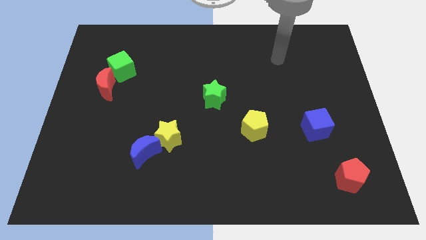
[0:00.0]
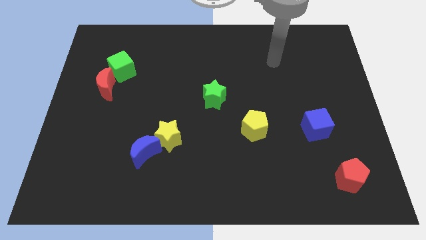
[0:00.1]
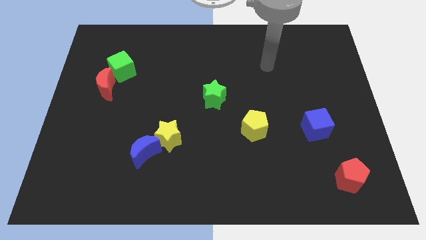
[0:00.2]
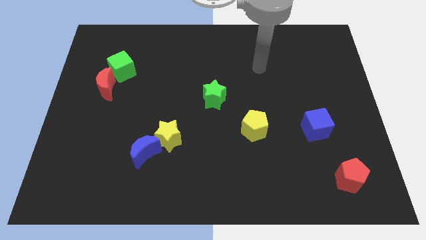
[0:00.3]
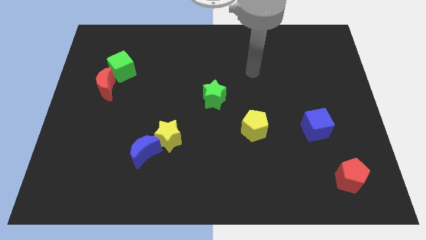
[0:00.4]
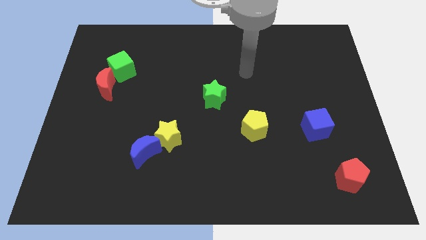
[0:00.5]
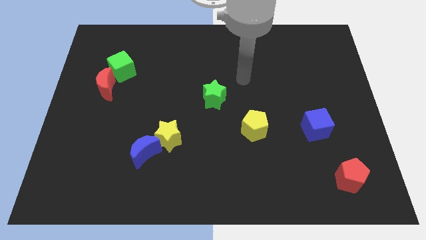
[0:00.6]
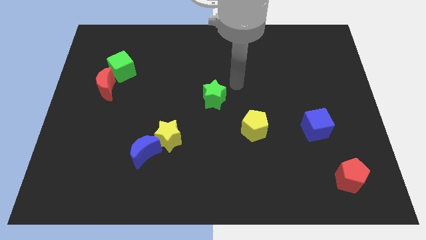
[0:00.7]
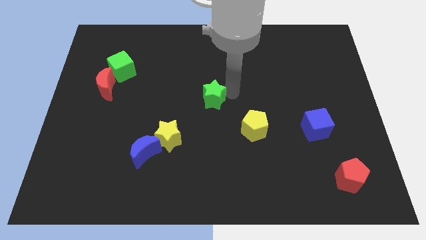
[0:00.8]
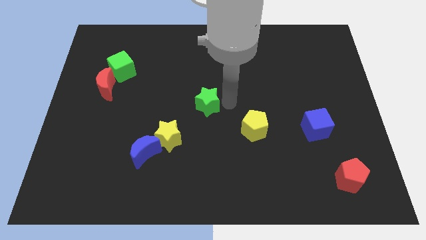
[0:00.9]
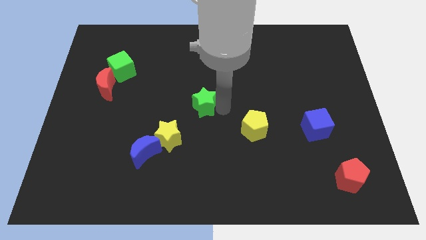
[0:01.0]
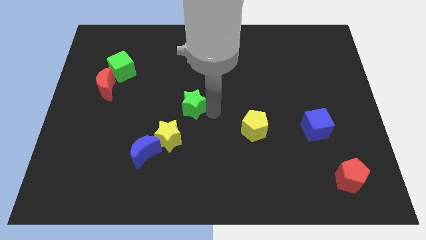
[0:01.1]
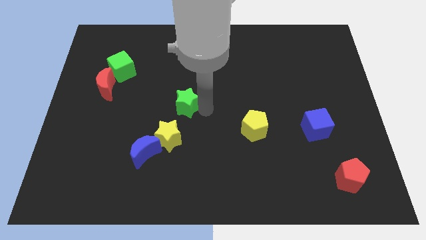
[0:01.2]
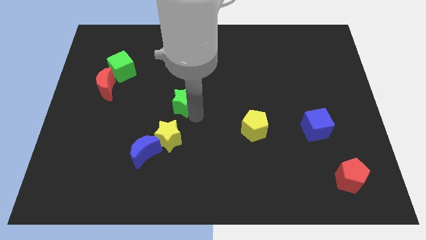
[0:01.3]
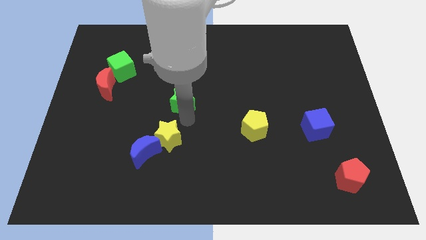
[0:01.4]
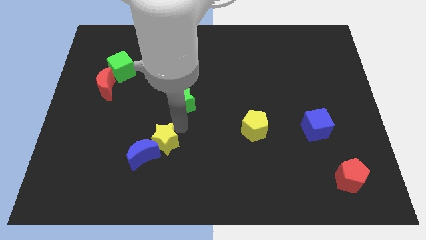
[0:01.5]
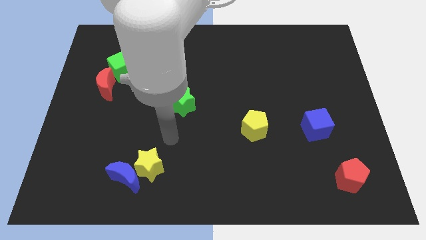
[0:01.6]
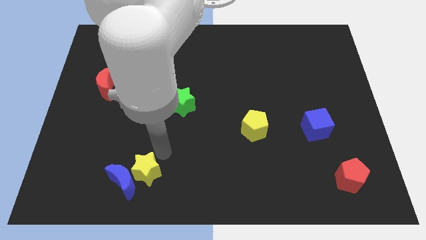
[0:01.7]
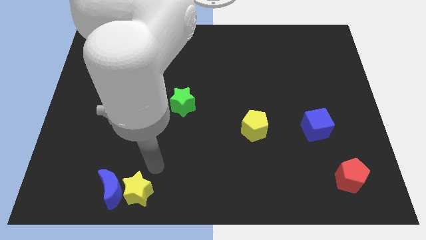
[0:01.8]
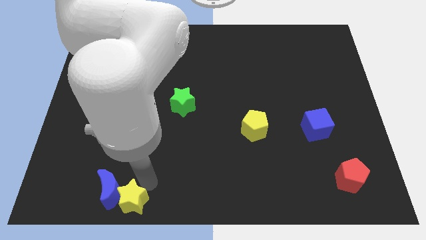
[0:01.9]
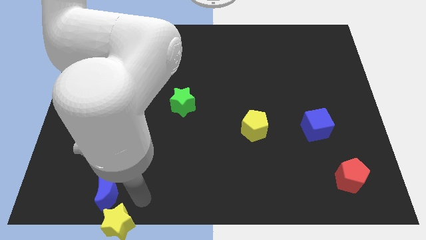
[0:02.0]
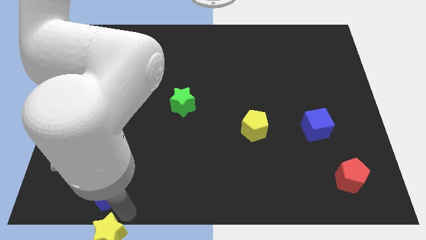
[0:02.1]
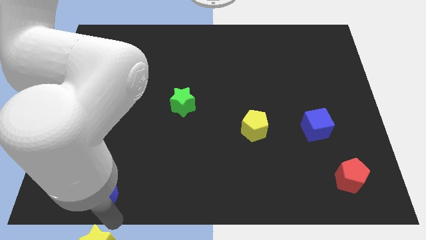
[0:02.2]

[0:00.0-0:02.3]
separate the blue moon from the yellow star

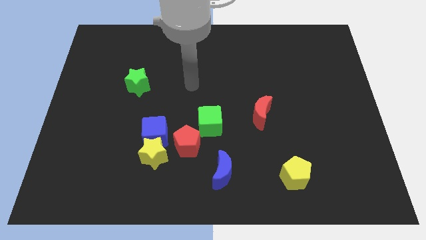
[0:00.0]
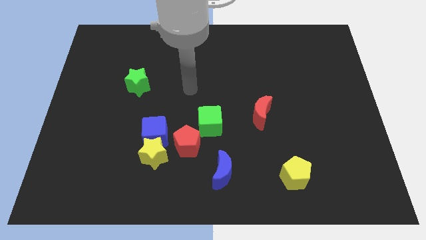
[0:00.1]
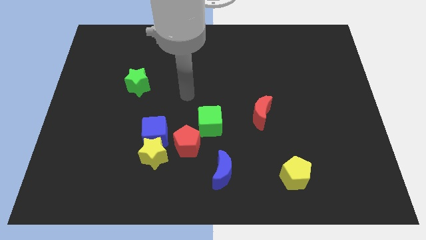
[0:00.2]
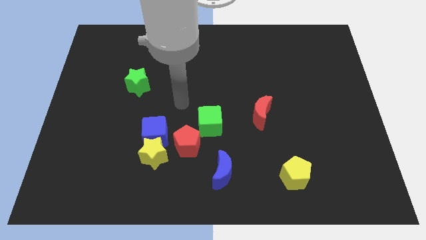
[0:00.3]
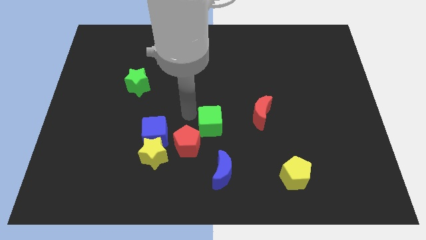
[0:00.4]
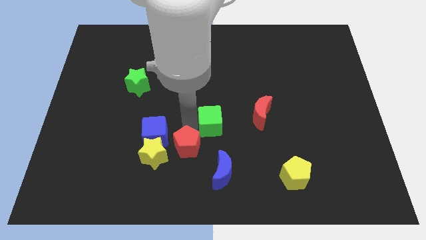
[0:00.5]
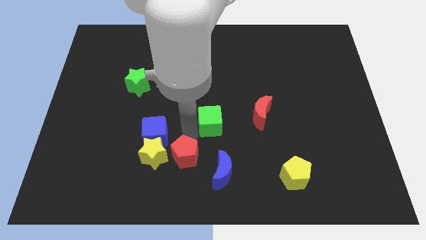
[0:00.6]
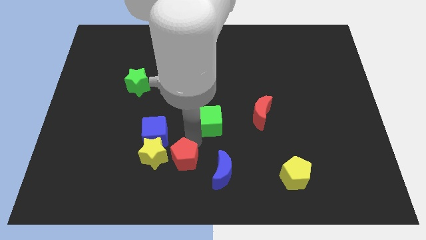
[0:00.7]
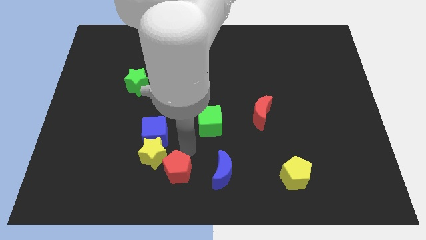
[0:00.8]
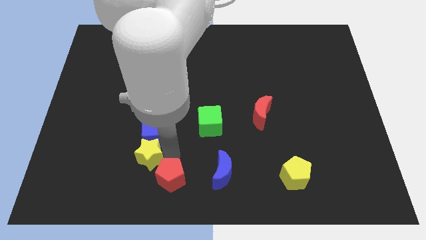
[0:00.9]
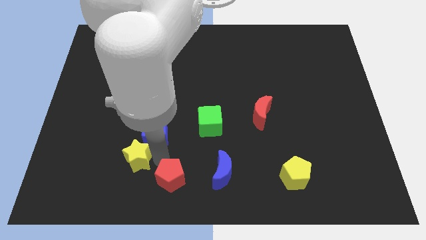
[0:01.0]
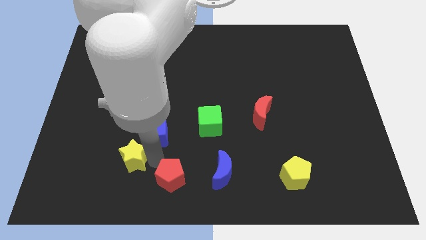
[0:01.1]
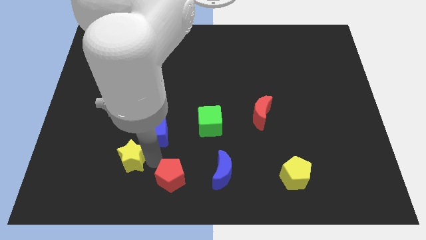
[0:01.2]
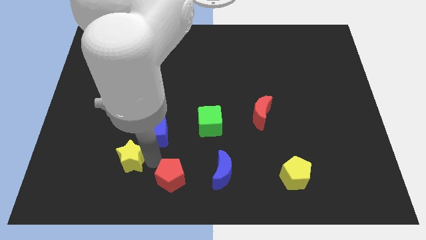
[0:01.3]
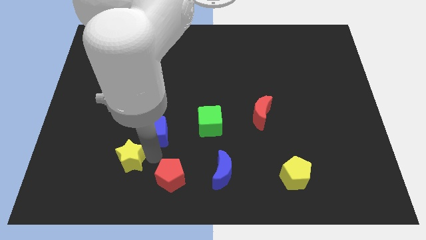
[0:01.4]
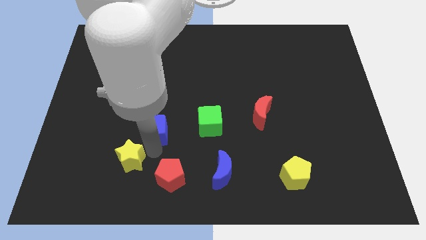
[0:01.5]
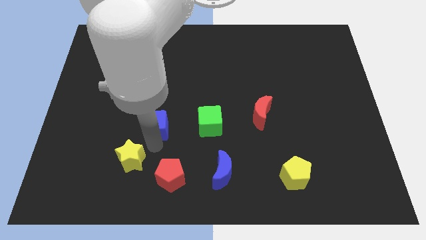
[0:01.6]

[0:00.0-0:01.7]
pull the blue cube apart from the yellow star and red pentagon

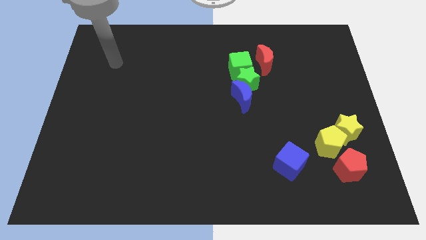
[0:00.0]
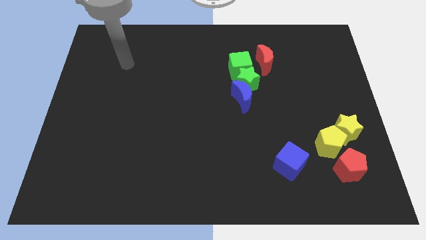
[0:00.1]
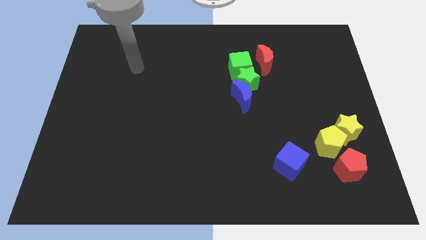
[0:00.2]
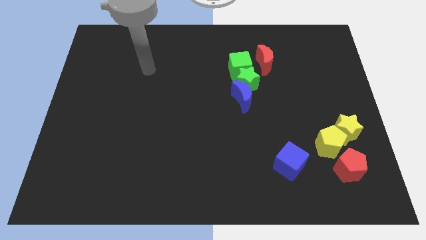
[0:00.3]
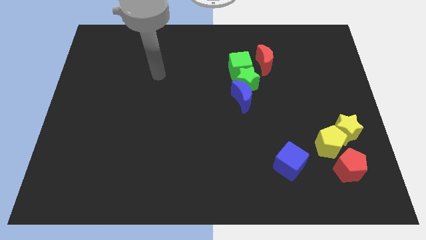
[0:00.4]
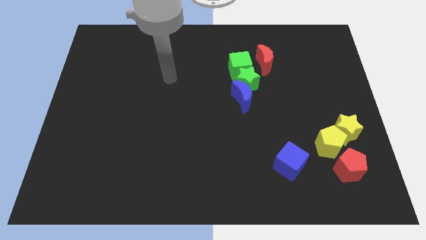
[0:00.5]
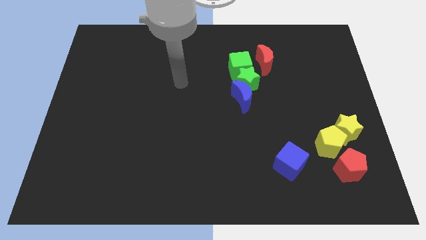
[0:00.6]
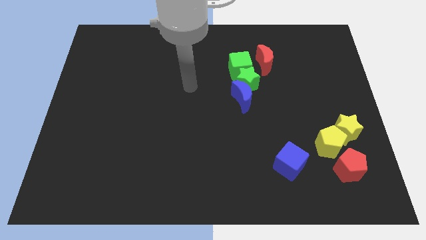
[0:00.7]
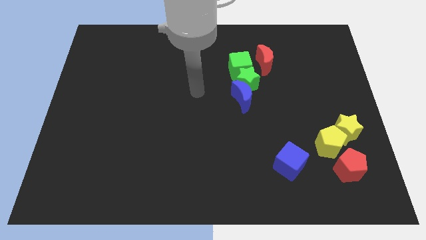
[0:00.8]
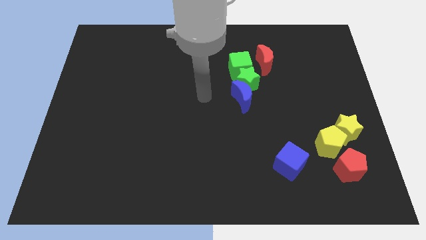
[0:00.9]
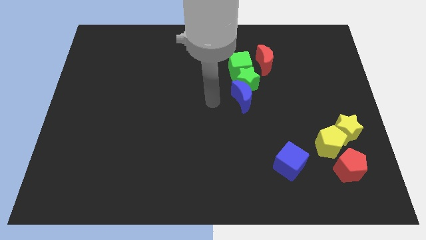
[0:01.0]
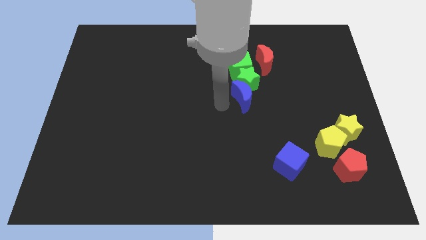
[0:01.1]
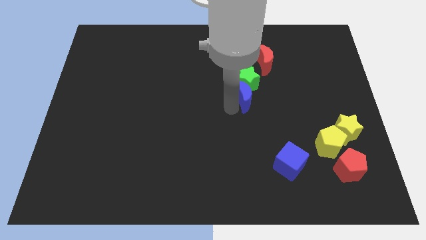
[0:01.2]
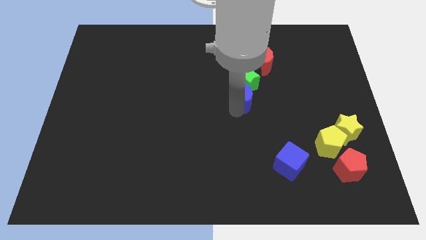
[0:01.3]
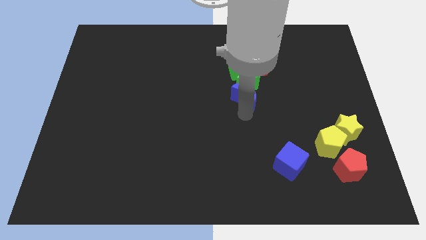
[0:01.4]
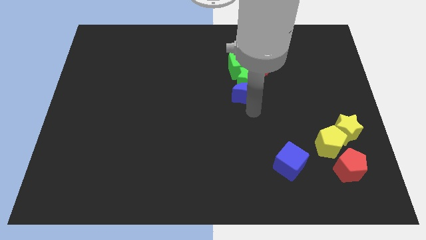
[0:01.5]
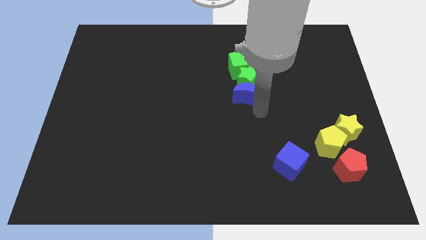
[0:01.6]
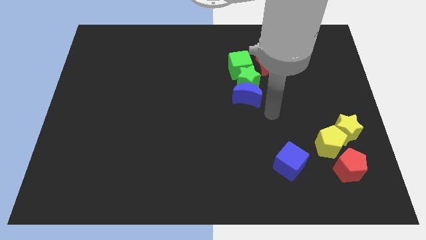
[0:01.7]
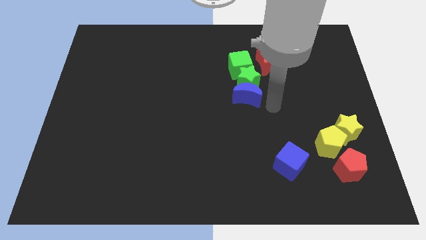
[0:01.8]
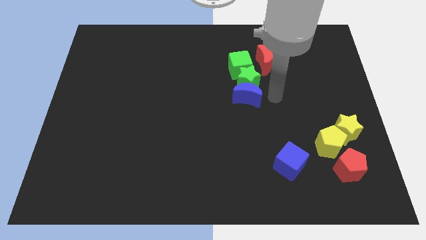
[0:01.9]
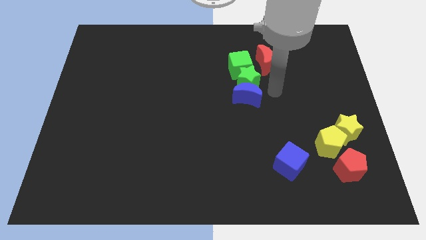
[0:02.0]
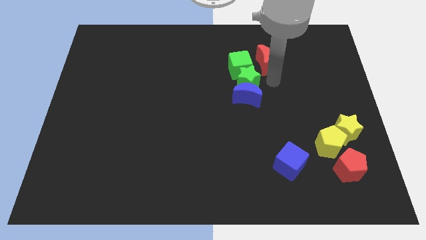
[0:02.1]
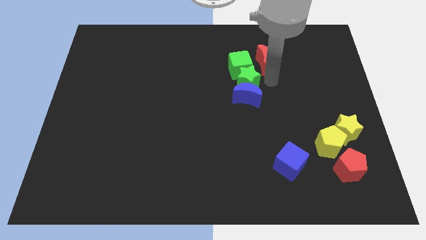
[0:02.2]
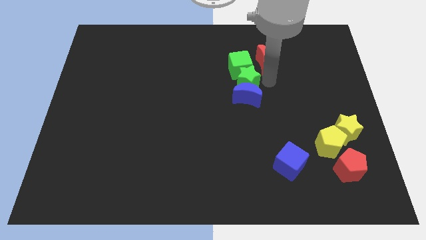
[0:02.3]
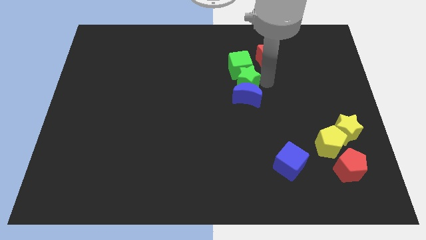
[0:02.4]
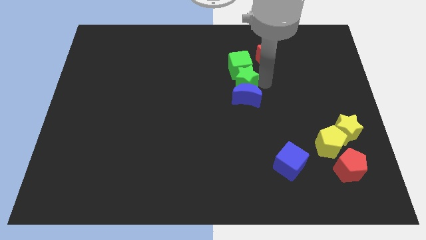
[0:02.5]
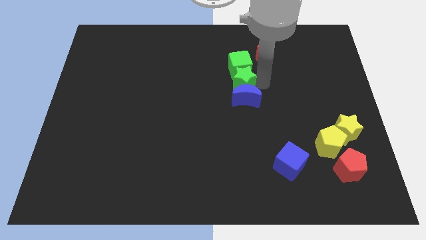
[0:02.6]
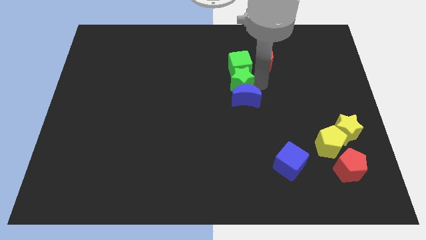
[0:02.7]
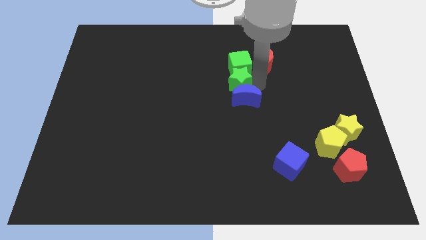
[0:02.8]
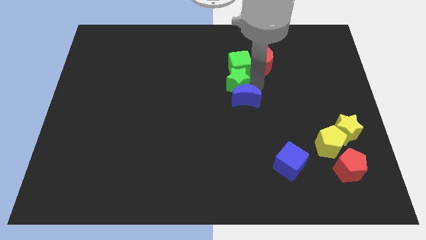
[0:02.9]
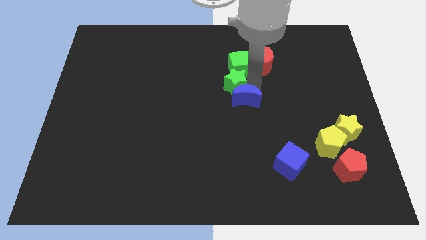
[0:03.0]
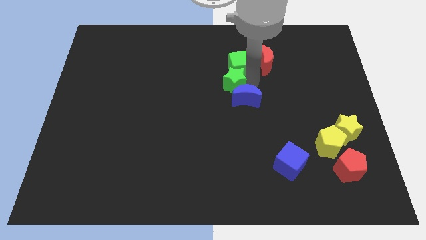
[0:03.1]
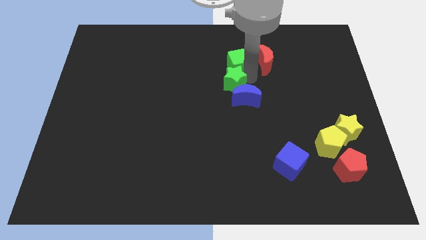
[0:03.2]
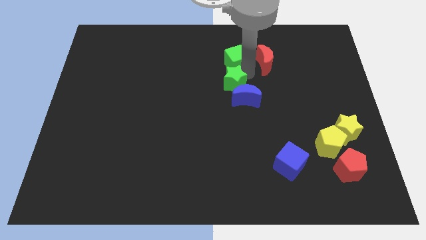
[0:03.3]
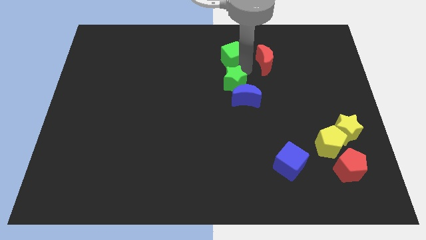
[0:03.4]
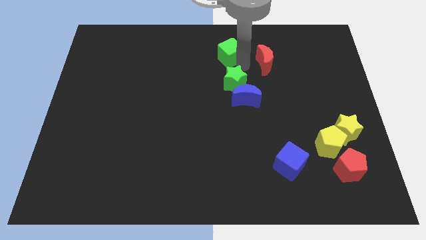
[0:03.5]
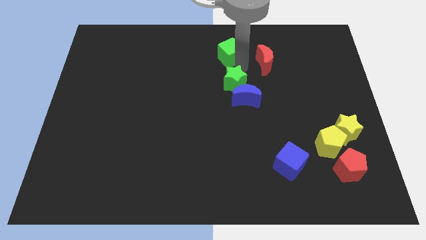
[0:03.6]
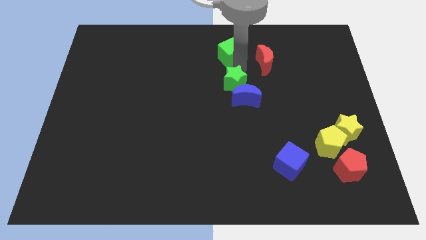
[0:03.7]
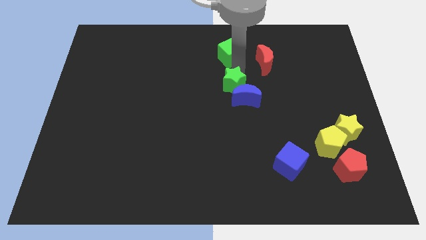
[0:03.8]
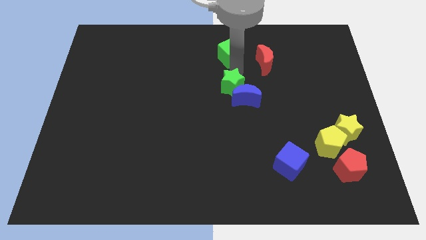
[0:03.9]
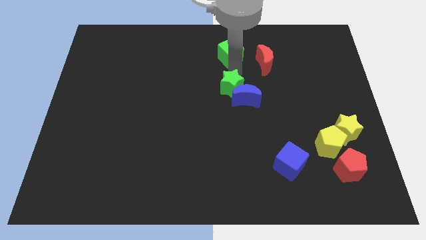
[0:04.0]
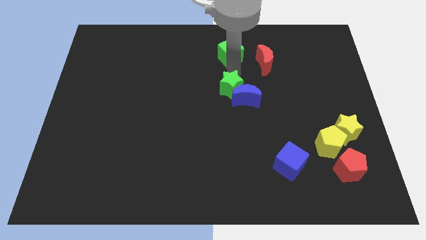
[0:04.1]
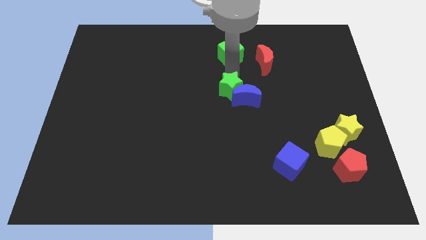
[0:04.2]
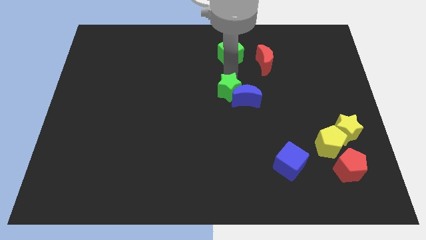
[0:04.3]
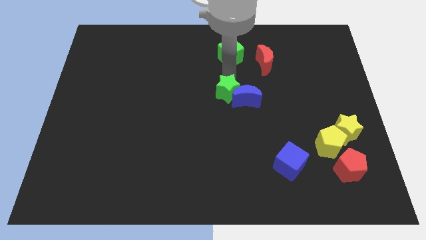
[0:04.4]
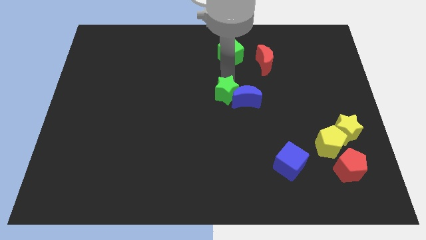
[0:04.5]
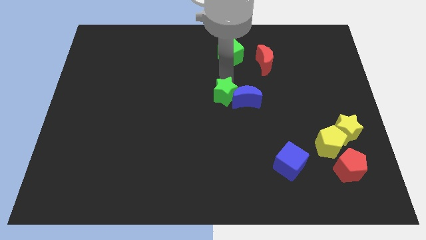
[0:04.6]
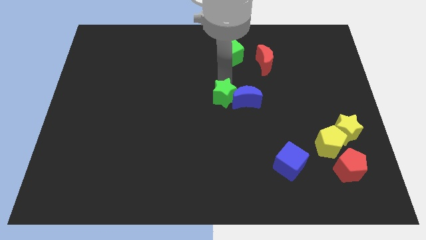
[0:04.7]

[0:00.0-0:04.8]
move the green star away from the group

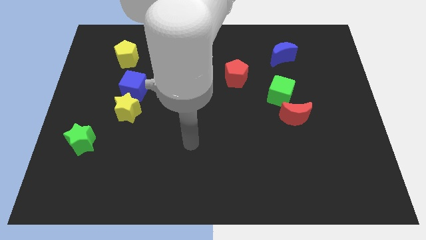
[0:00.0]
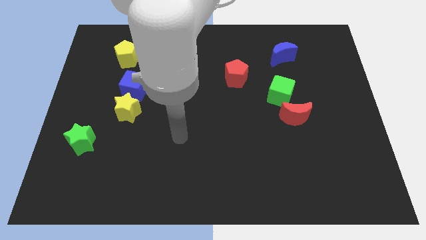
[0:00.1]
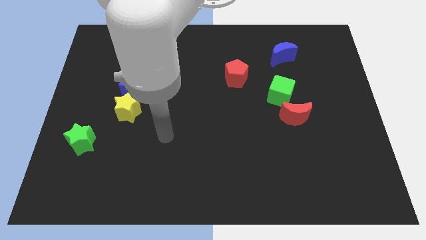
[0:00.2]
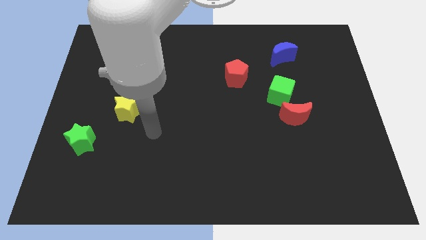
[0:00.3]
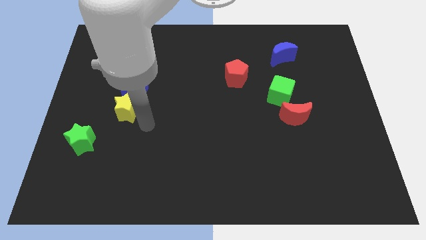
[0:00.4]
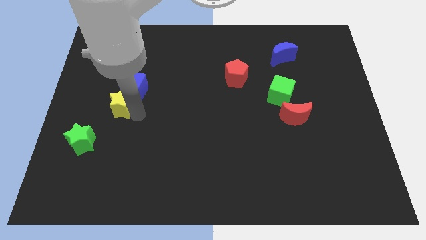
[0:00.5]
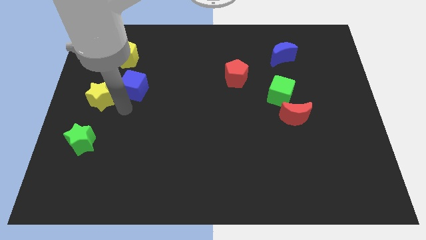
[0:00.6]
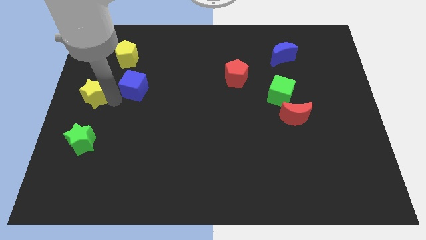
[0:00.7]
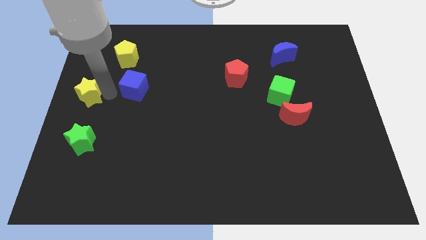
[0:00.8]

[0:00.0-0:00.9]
separate the blue cube from the yellow star
